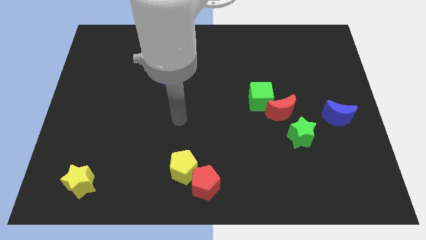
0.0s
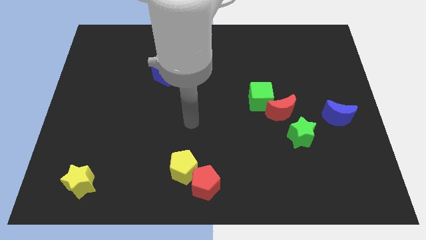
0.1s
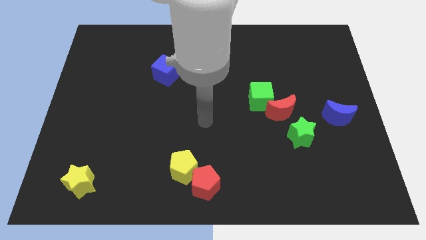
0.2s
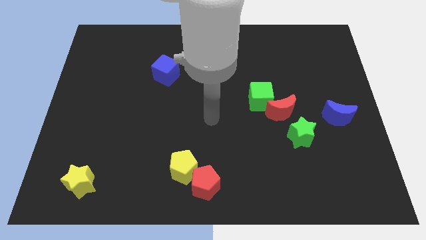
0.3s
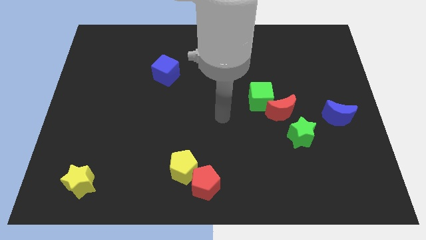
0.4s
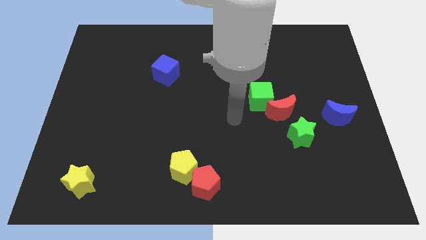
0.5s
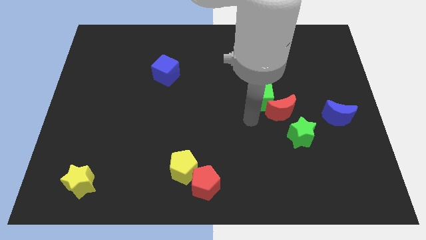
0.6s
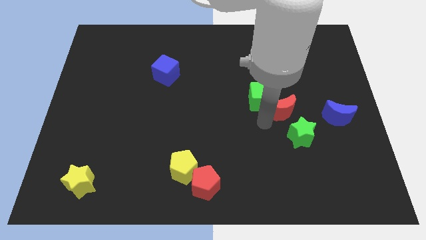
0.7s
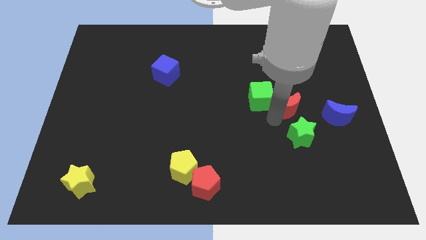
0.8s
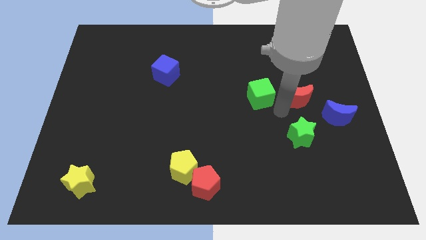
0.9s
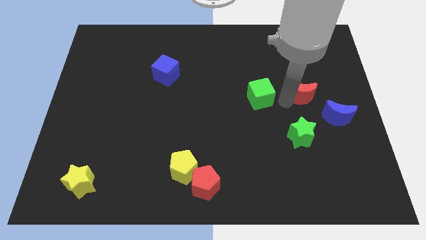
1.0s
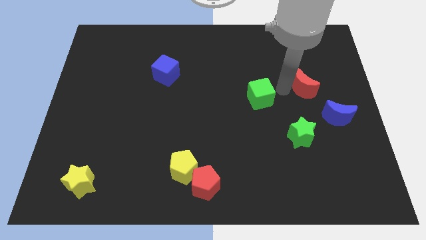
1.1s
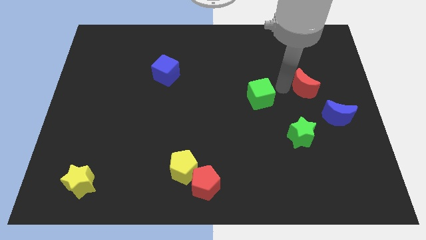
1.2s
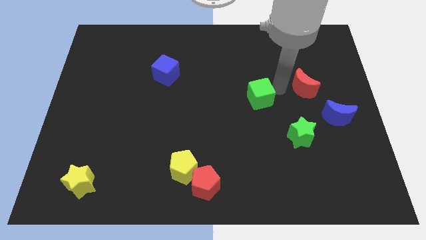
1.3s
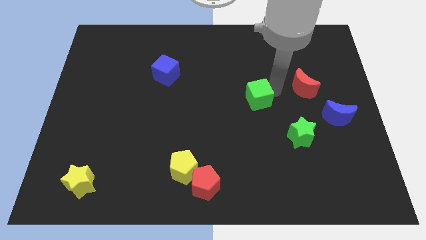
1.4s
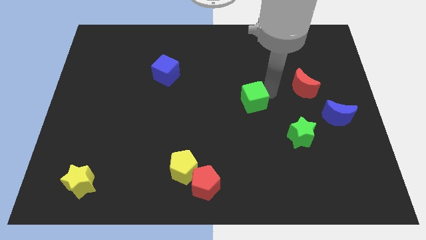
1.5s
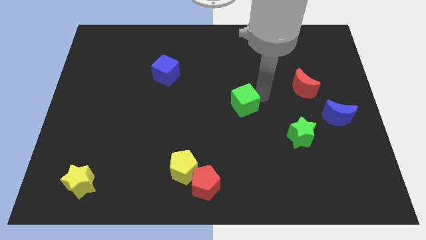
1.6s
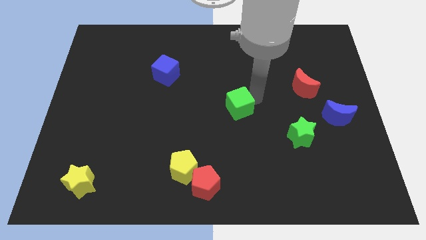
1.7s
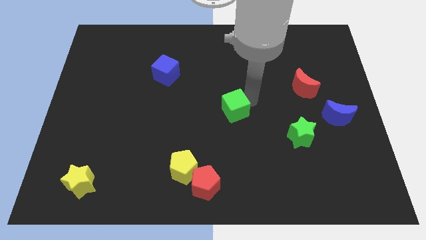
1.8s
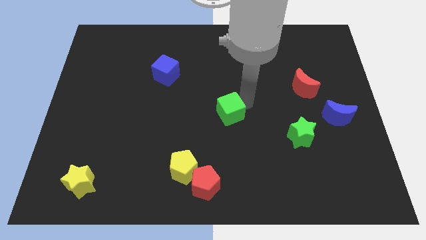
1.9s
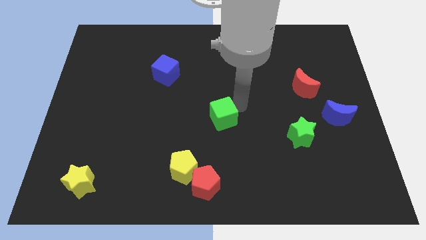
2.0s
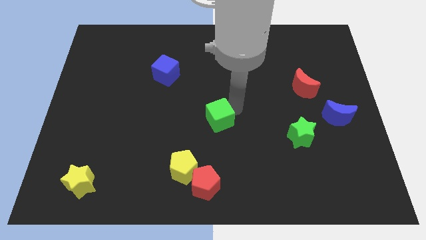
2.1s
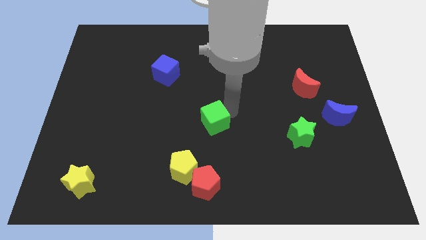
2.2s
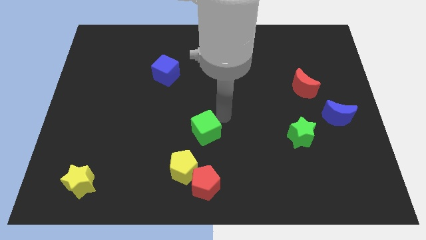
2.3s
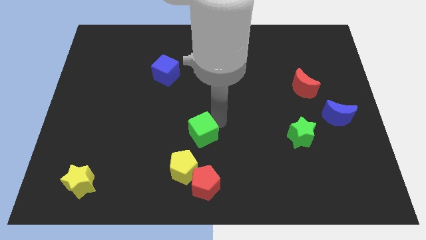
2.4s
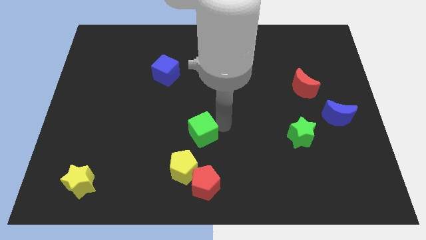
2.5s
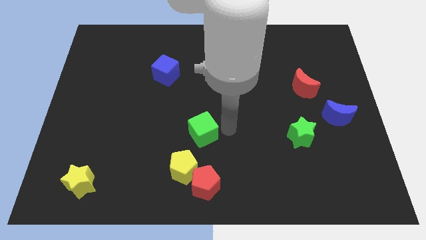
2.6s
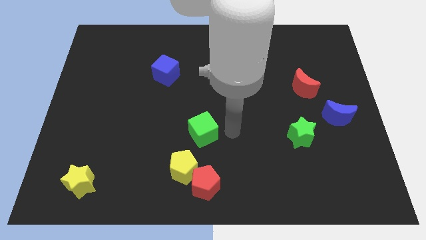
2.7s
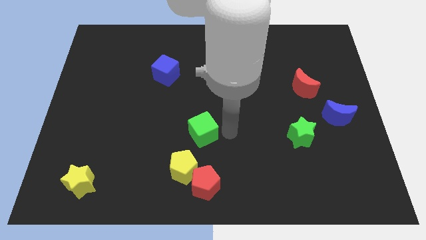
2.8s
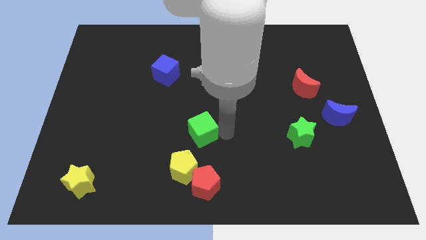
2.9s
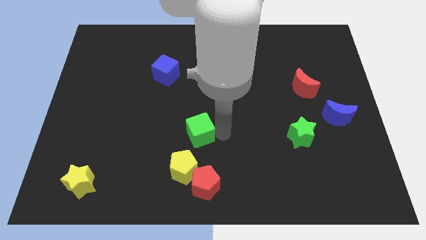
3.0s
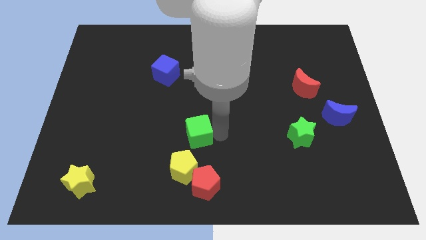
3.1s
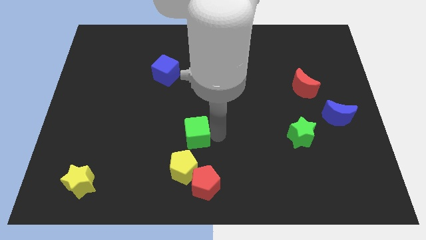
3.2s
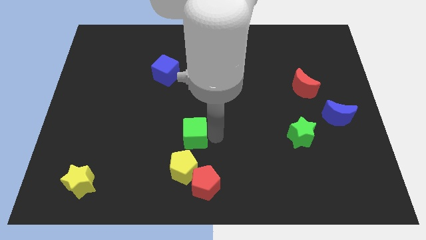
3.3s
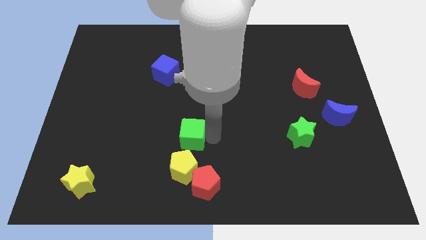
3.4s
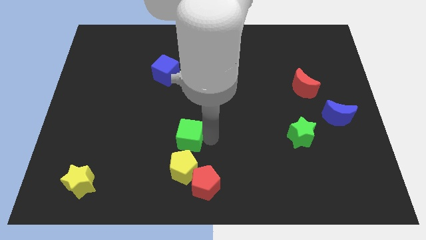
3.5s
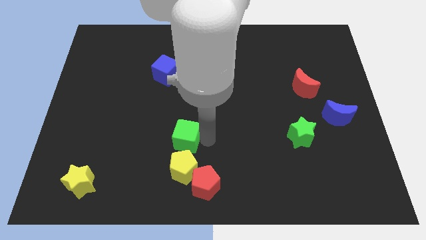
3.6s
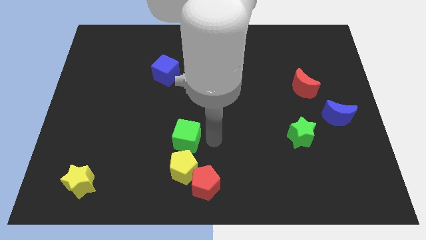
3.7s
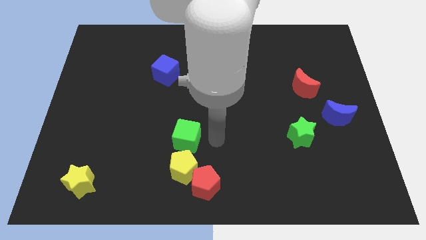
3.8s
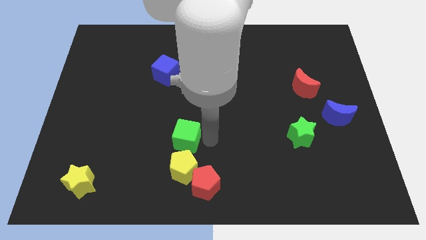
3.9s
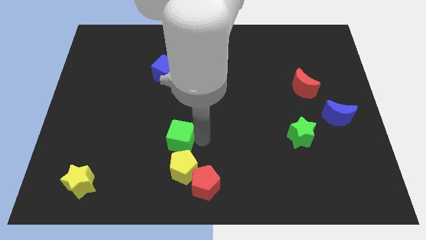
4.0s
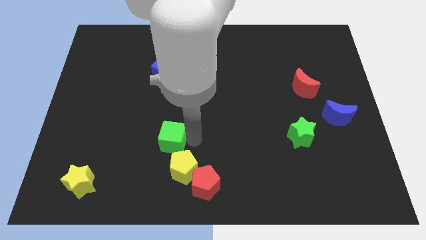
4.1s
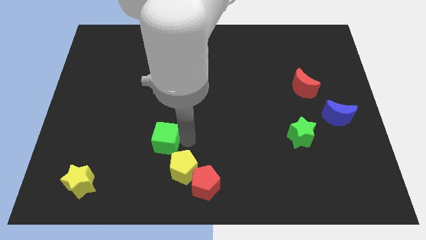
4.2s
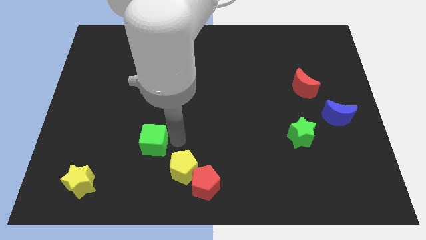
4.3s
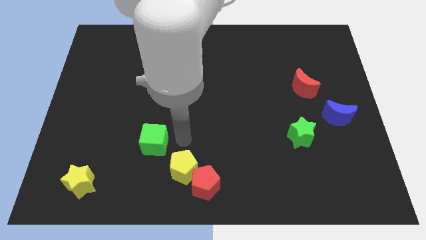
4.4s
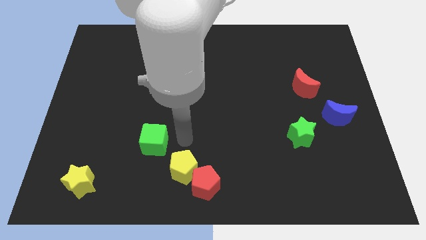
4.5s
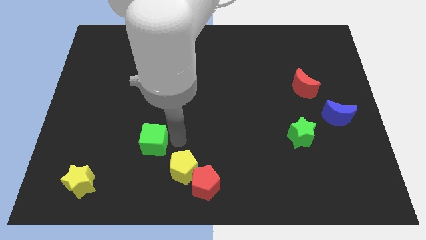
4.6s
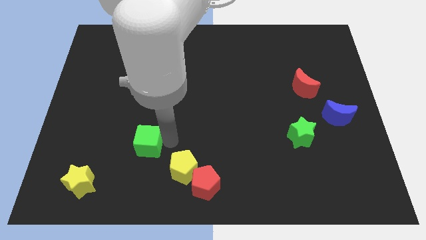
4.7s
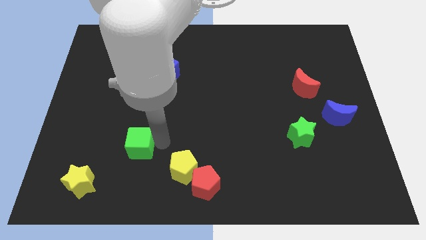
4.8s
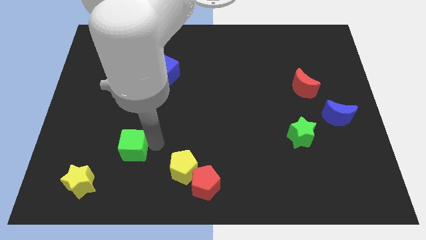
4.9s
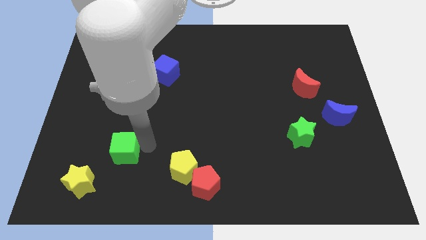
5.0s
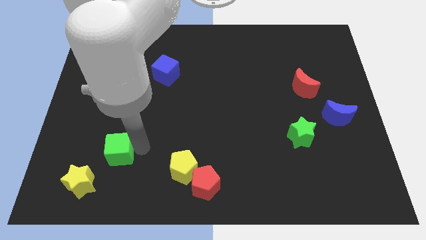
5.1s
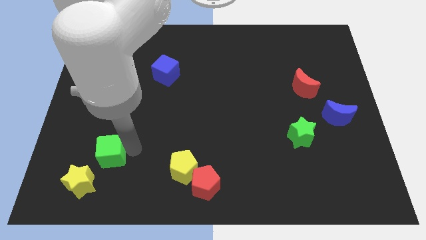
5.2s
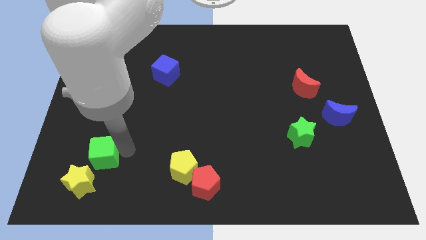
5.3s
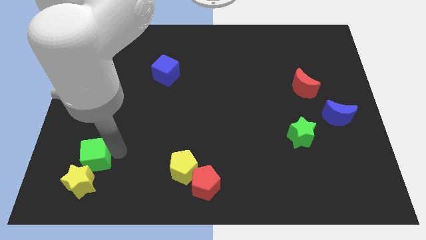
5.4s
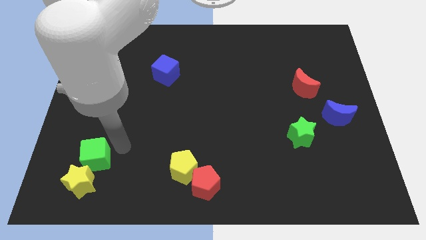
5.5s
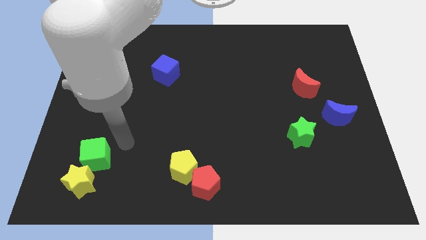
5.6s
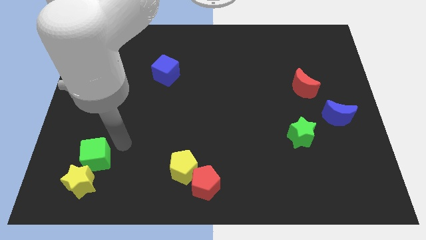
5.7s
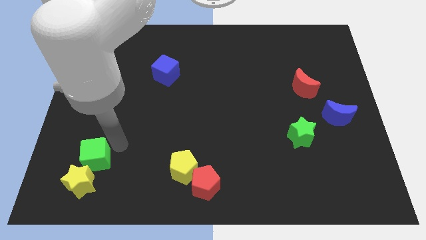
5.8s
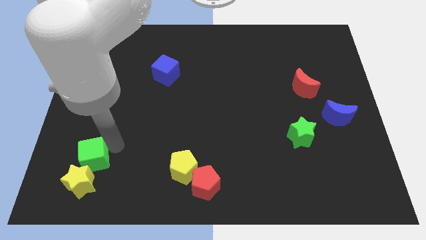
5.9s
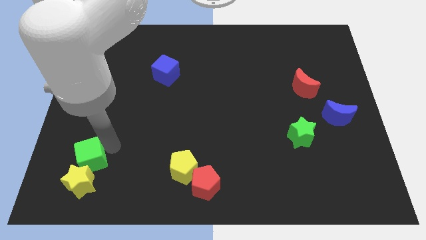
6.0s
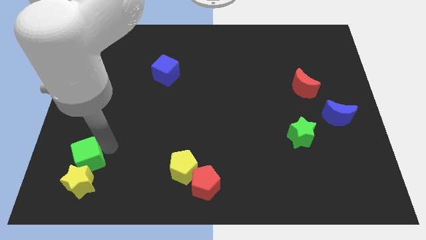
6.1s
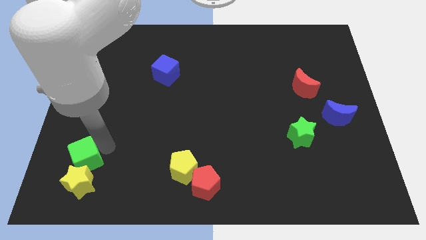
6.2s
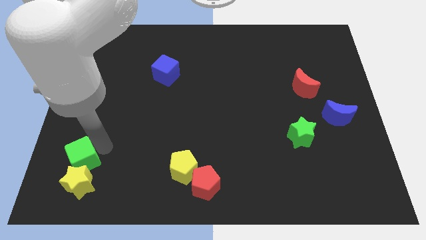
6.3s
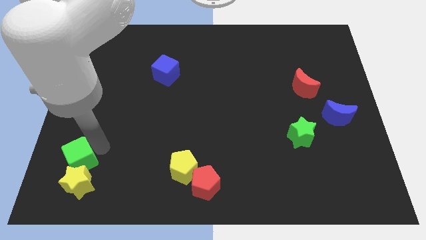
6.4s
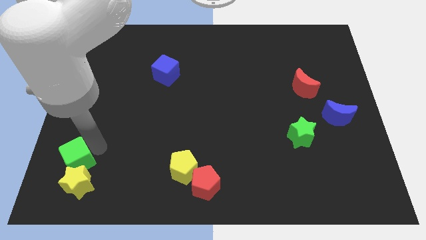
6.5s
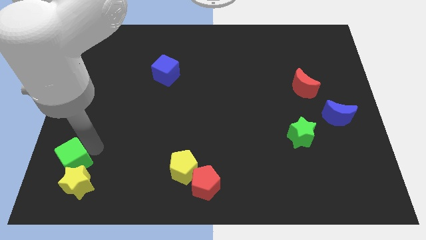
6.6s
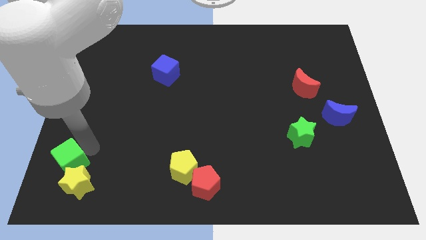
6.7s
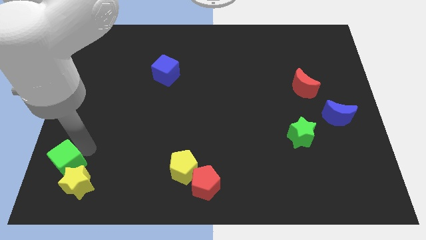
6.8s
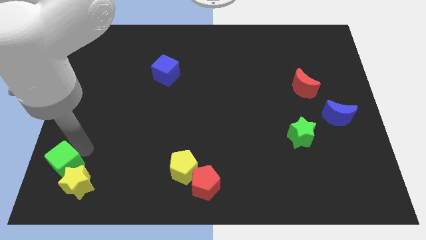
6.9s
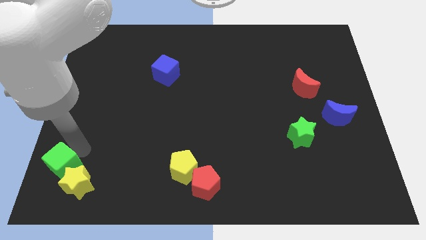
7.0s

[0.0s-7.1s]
slide the green cube to the bottom left
